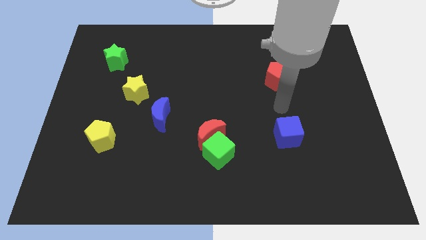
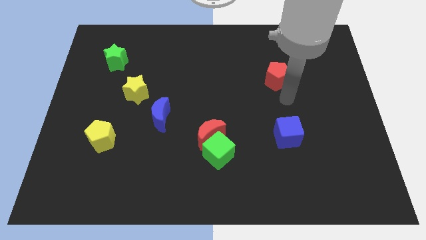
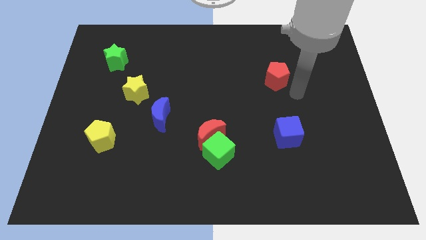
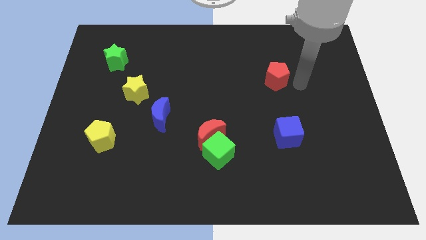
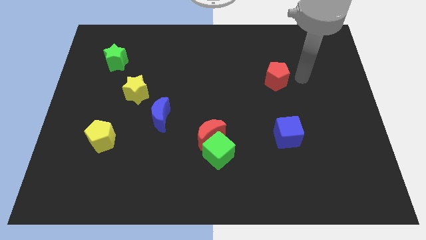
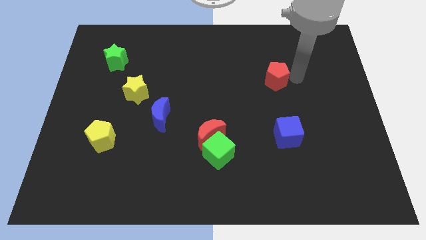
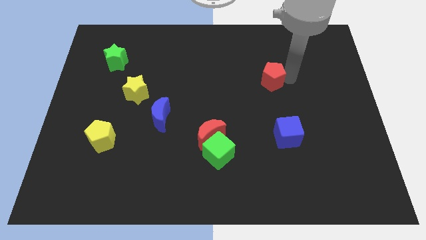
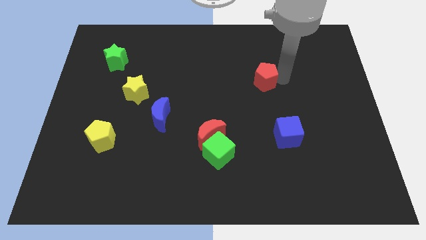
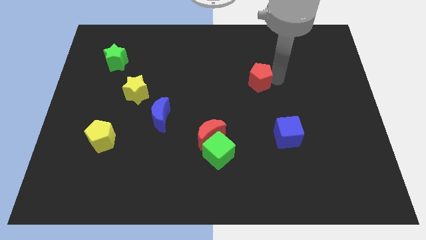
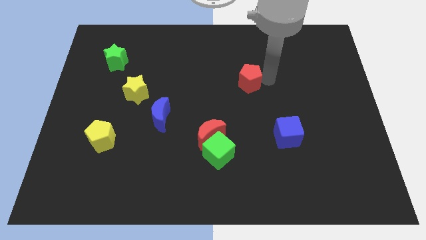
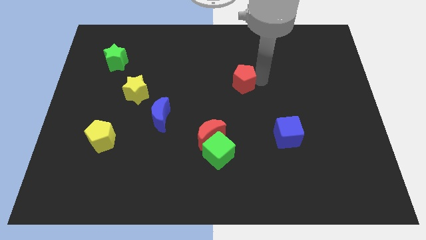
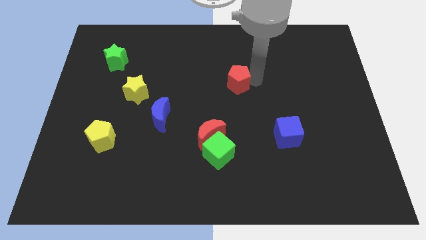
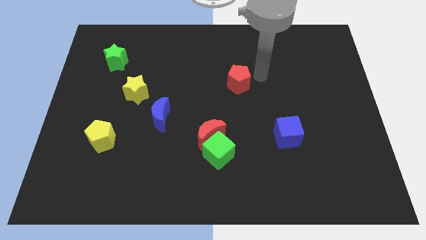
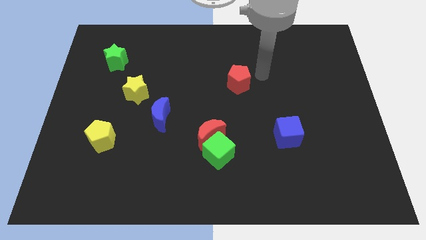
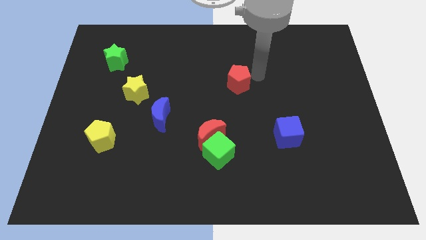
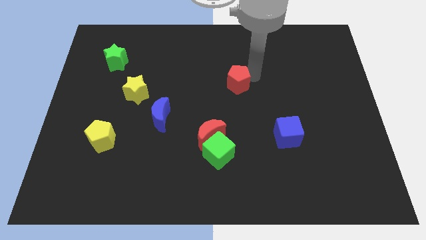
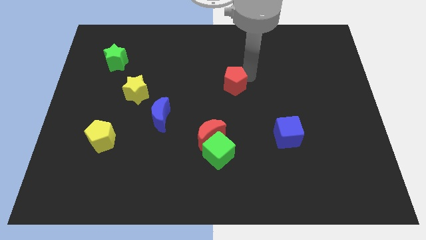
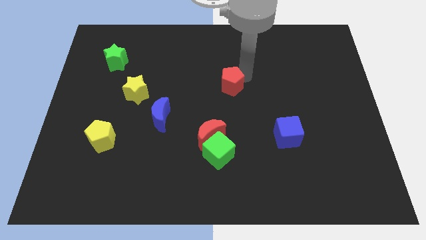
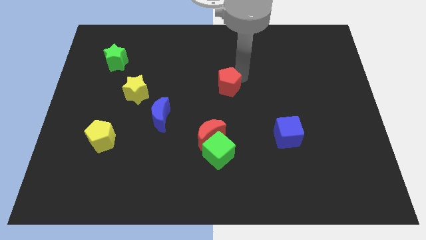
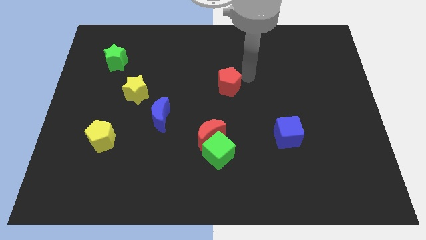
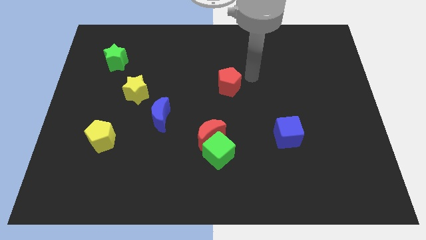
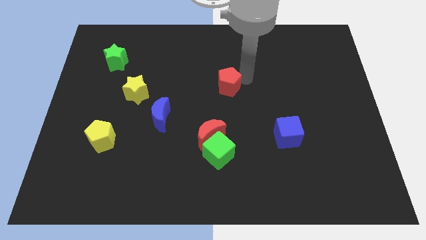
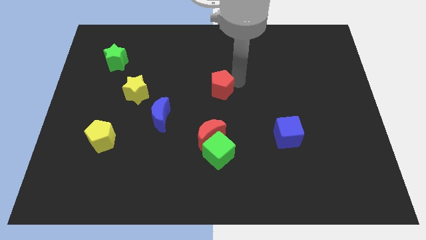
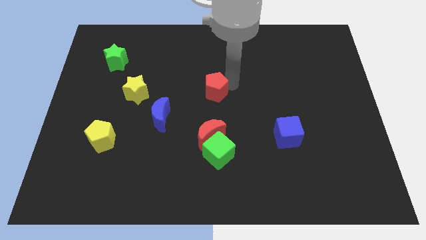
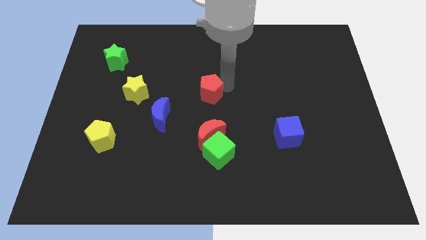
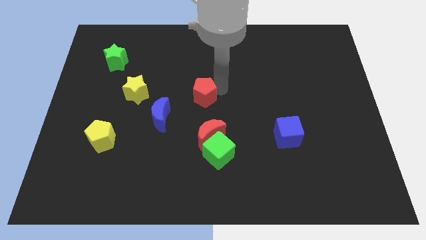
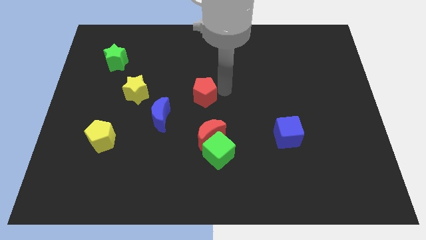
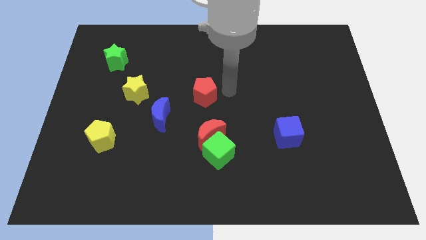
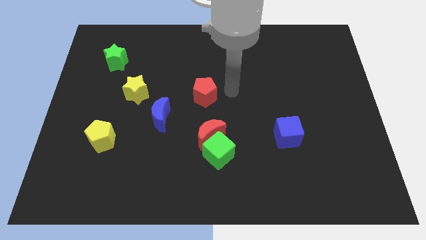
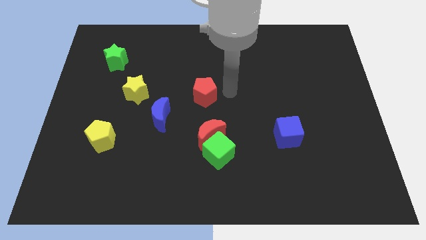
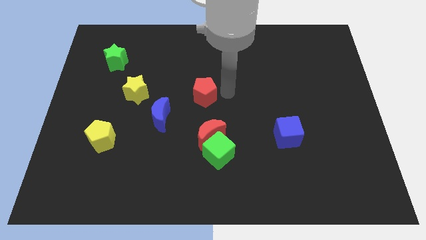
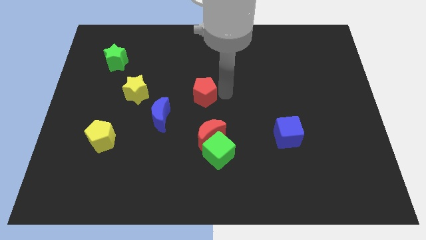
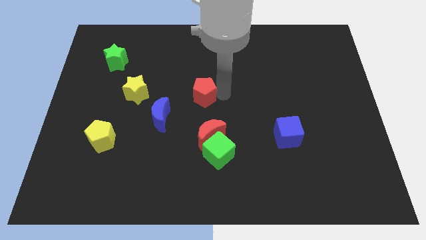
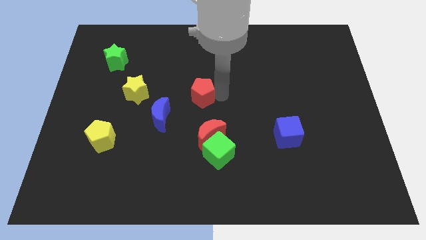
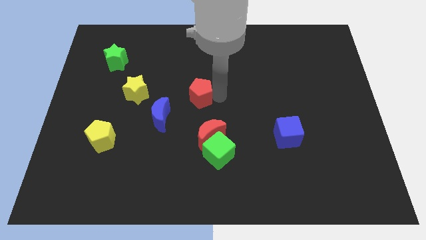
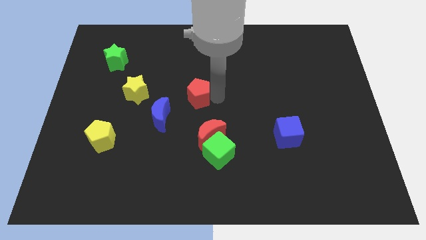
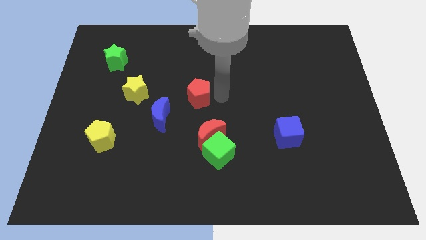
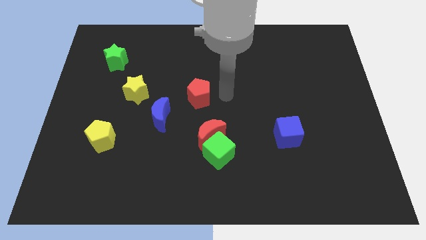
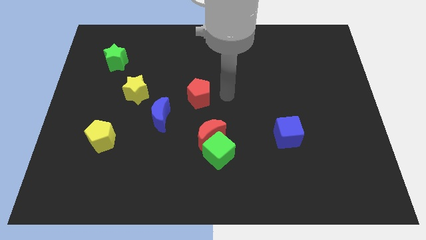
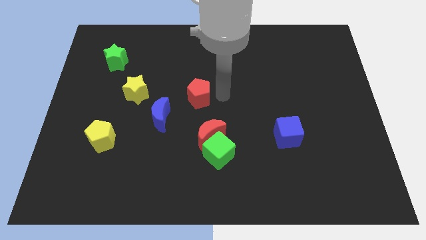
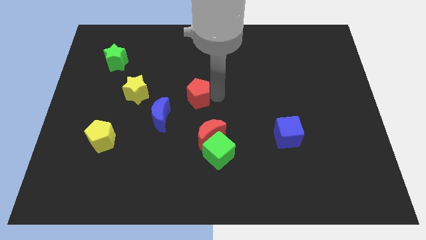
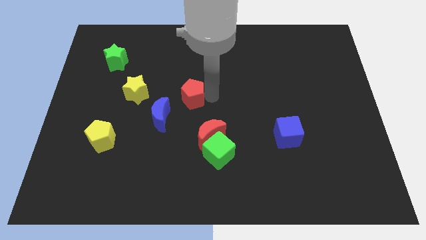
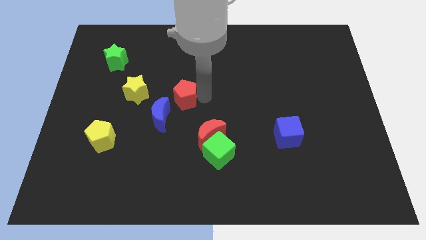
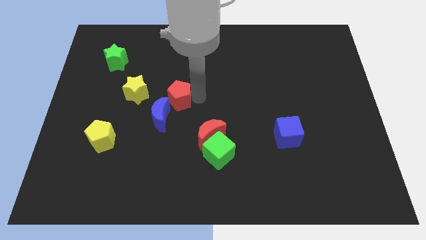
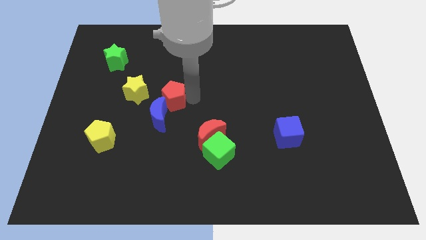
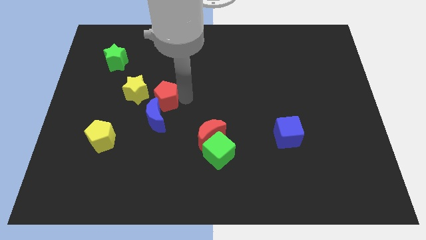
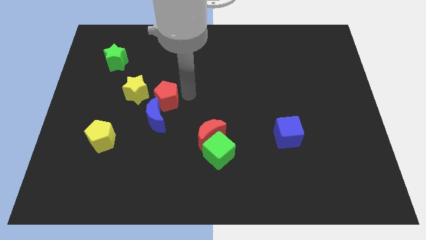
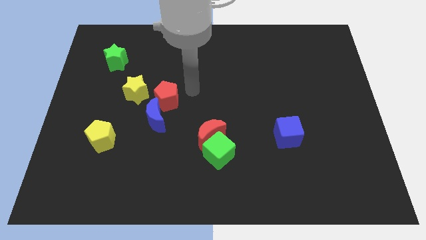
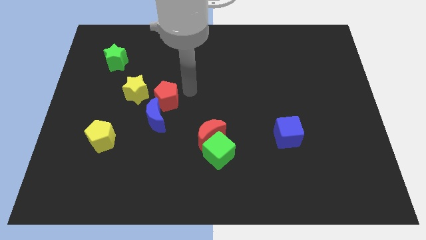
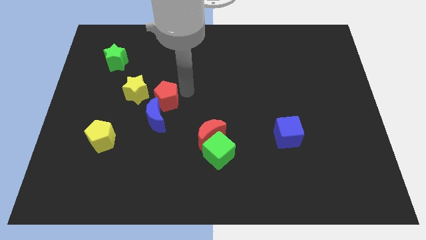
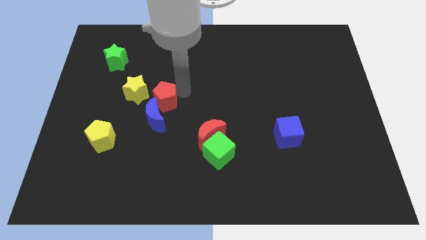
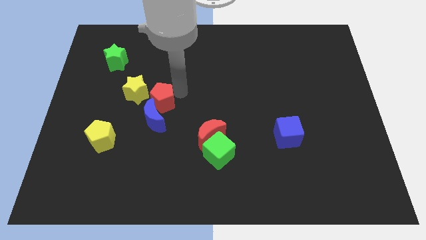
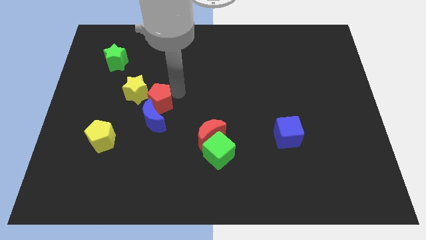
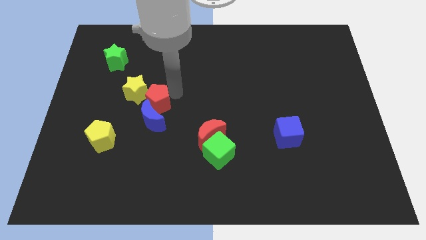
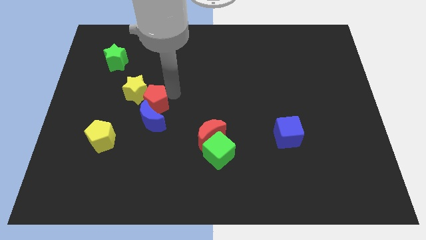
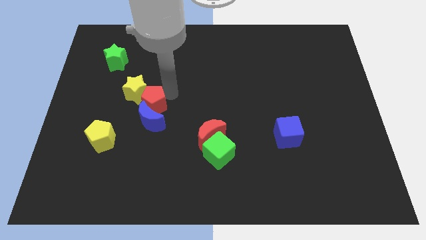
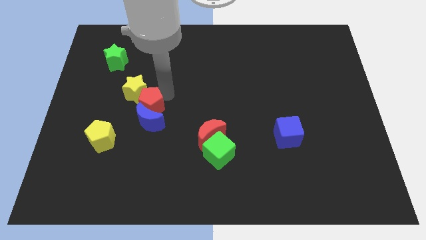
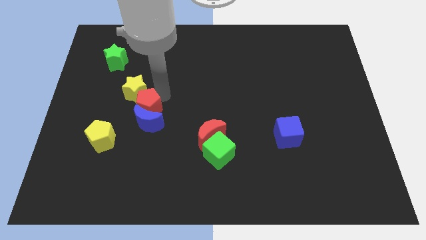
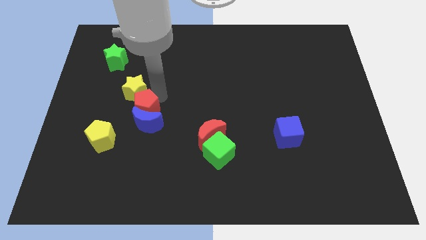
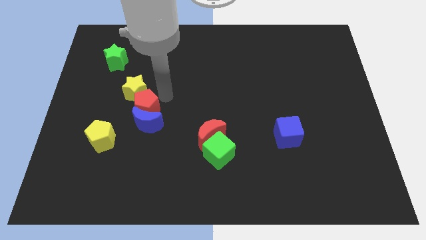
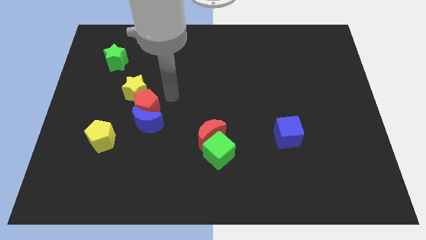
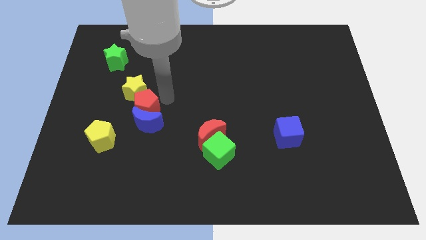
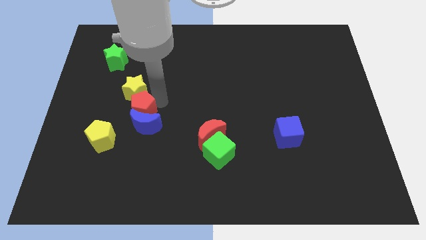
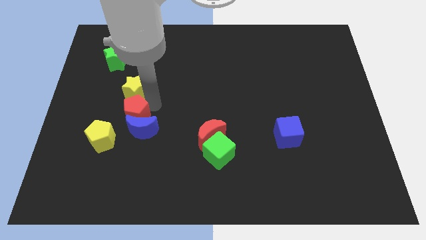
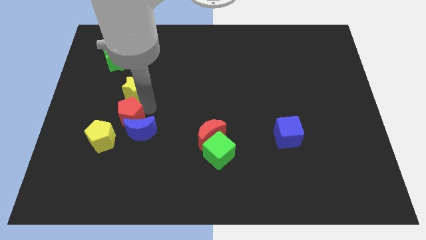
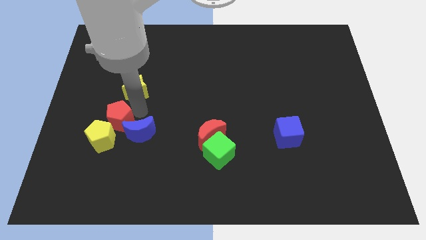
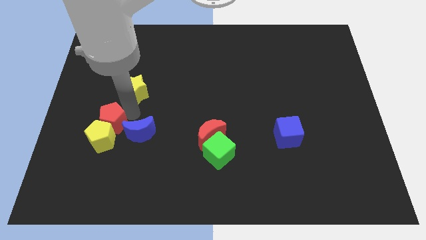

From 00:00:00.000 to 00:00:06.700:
move the red pentagon close to the yellow pentagon

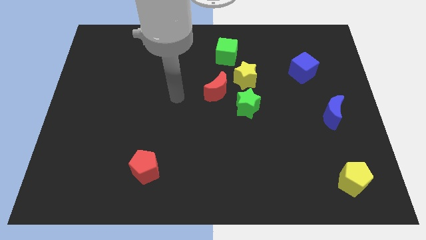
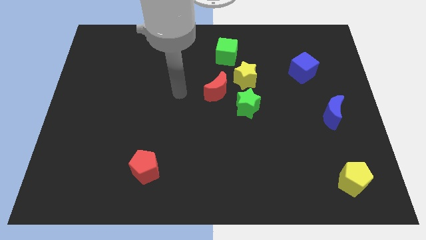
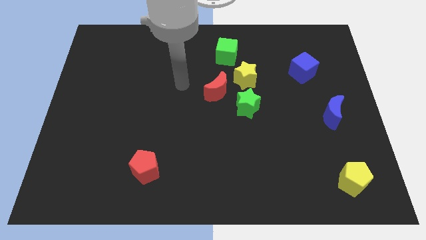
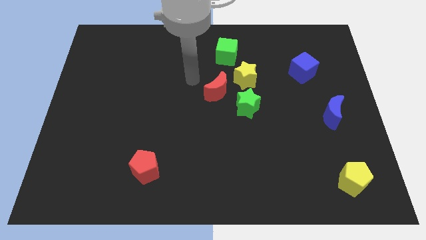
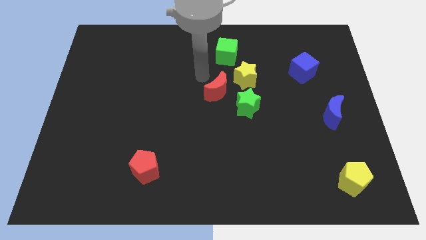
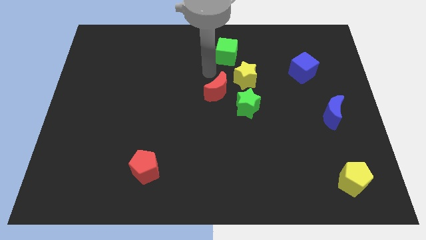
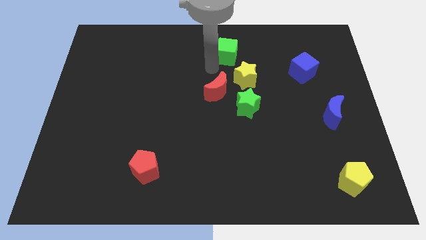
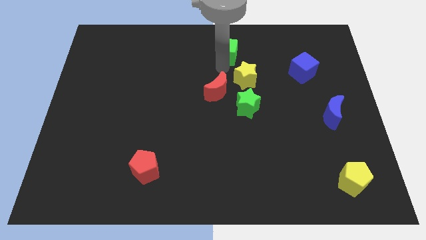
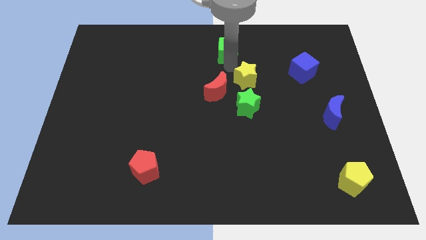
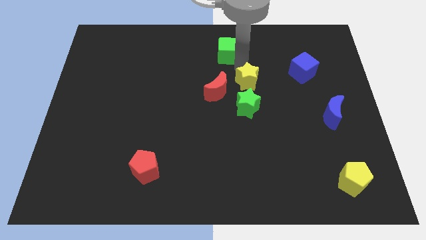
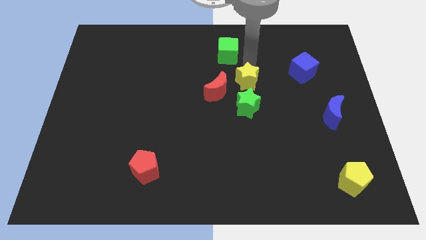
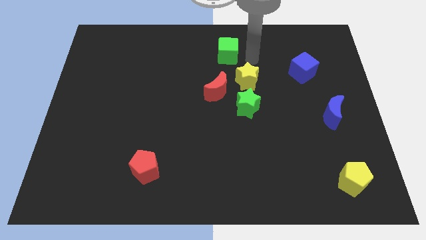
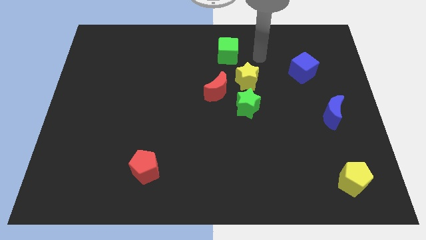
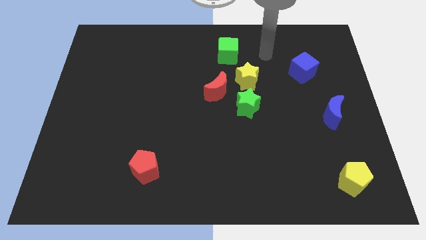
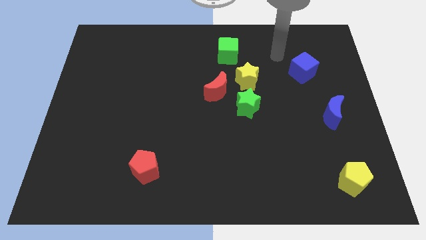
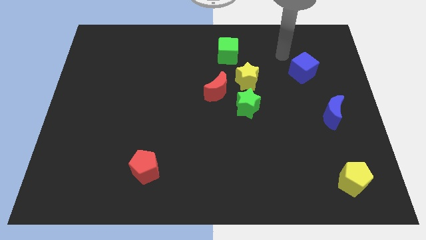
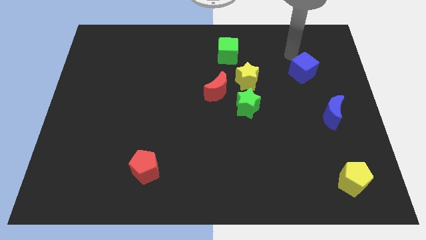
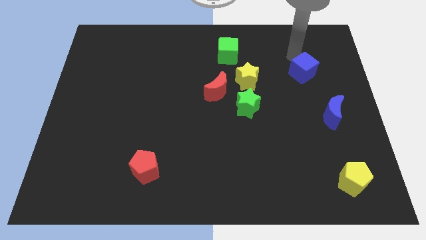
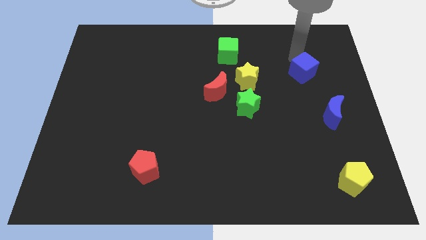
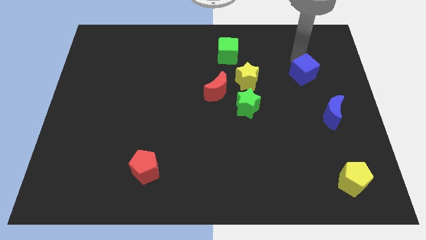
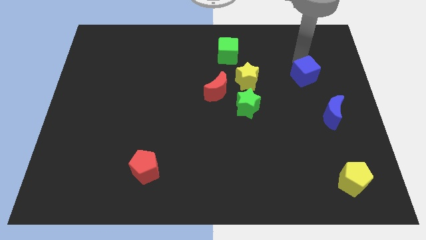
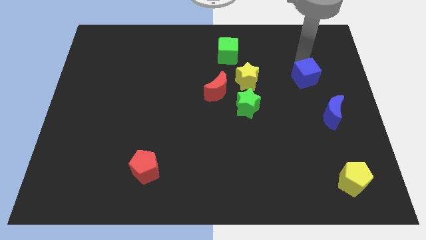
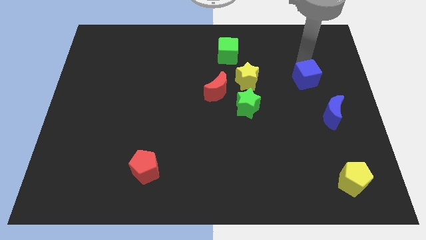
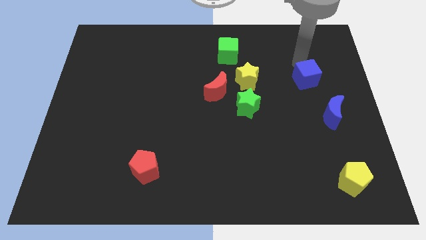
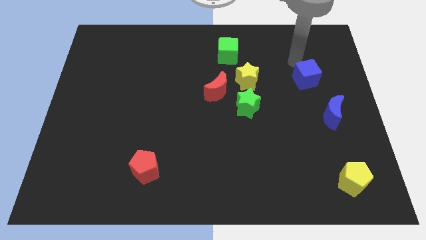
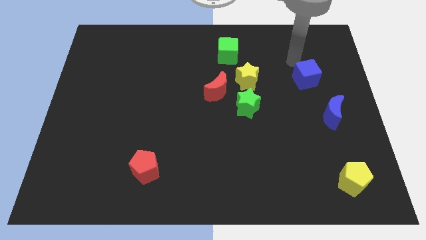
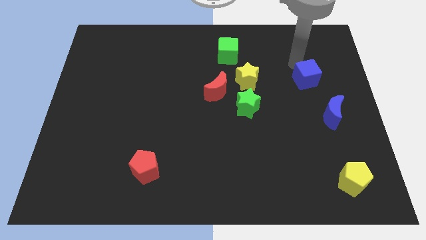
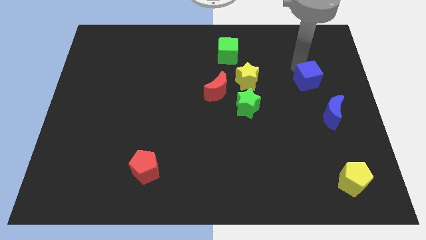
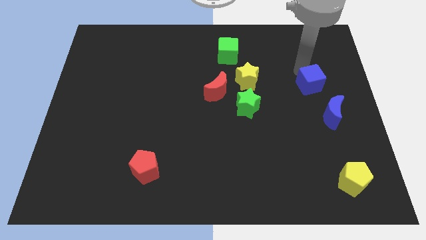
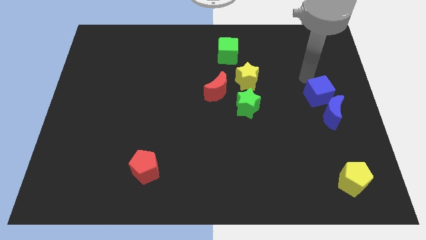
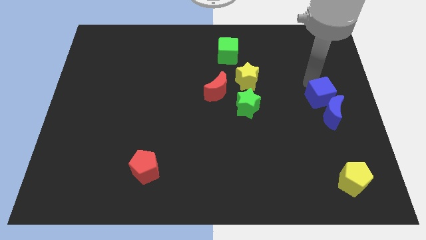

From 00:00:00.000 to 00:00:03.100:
move the blue cube towards the blue moon
